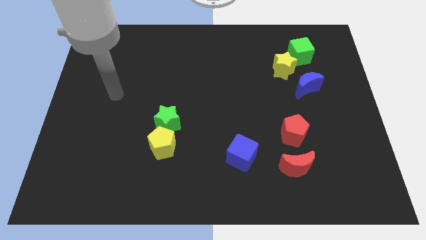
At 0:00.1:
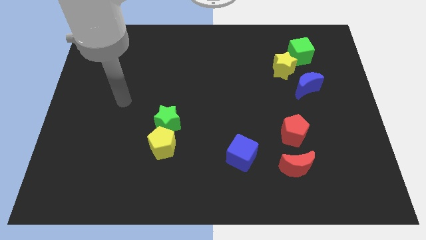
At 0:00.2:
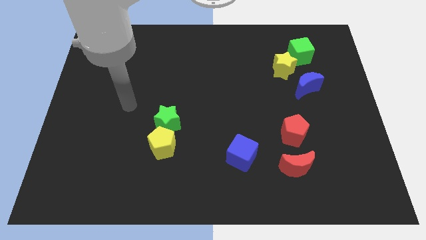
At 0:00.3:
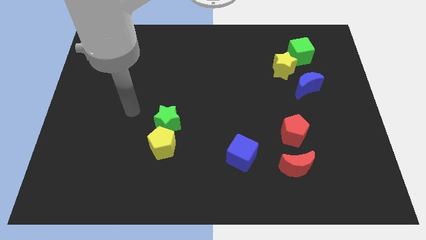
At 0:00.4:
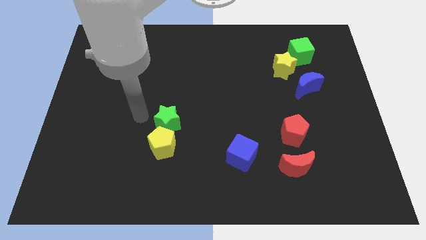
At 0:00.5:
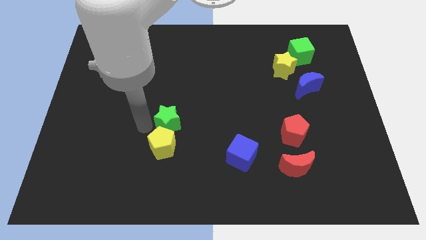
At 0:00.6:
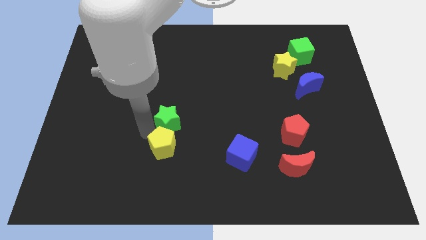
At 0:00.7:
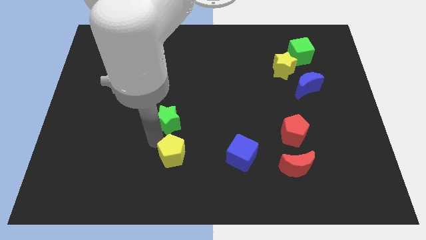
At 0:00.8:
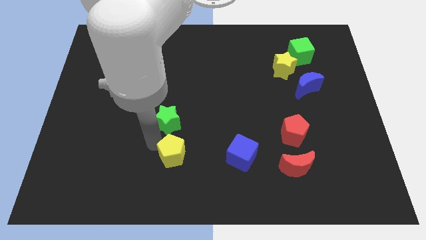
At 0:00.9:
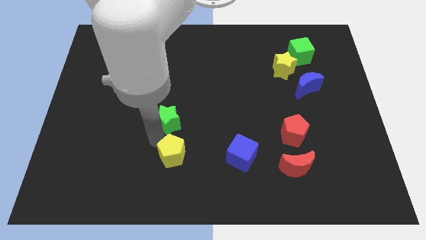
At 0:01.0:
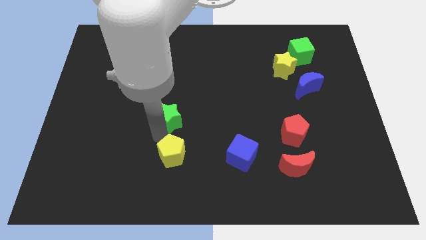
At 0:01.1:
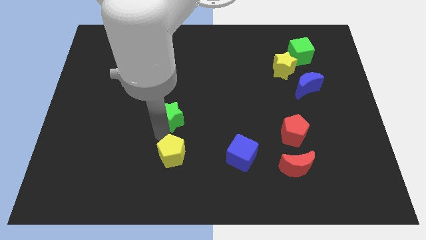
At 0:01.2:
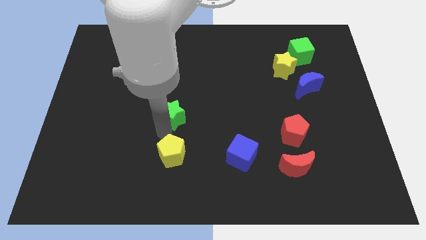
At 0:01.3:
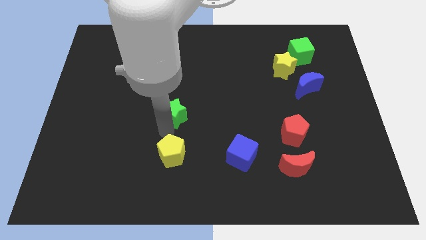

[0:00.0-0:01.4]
separate the green star from the yellow pentagon

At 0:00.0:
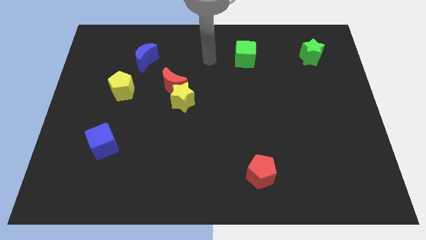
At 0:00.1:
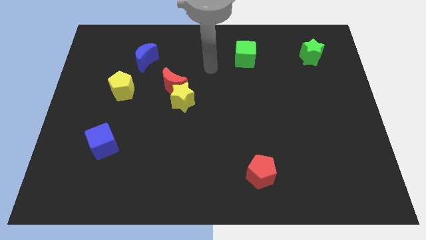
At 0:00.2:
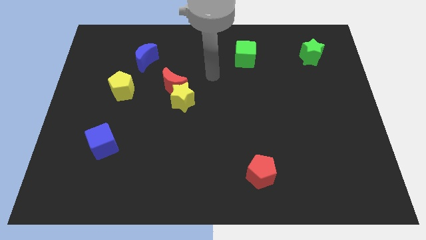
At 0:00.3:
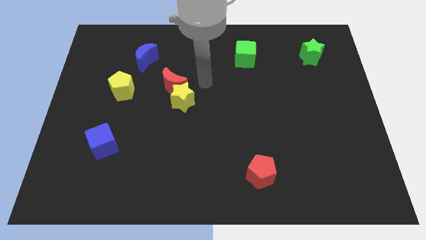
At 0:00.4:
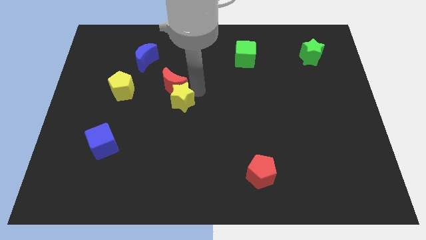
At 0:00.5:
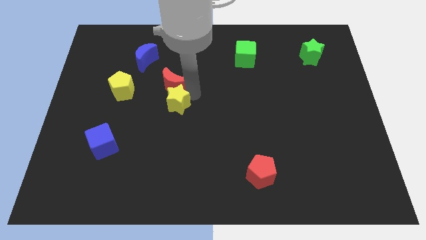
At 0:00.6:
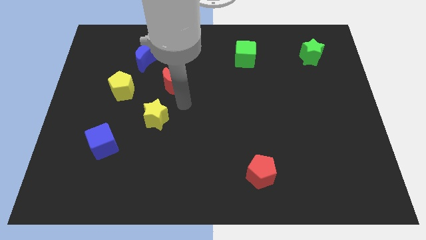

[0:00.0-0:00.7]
pull the red moon apart from the yellow star

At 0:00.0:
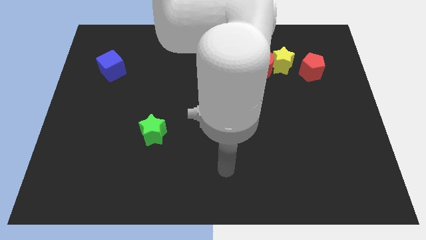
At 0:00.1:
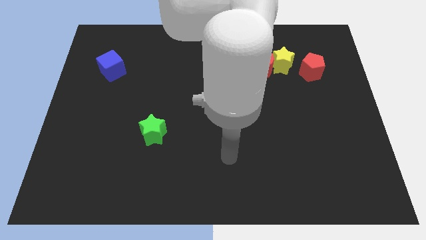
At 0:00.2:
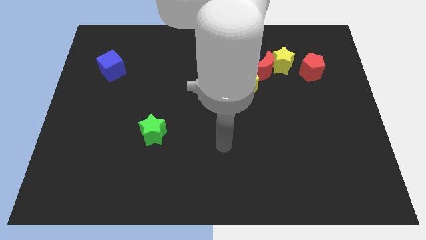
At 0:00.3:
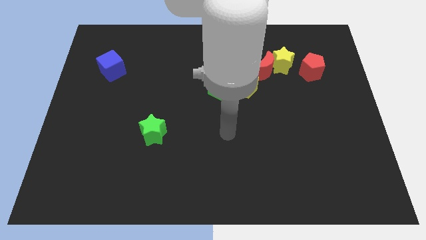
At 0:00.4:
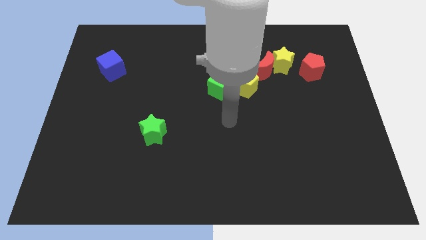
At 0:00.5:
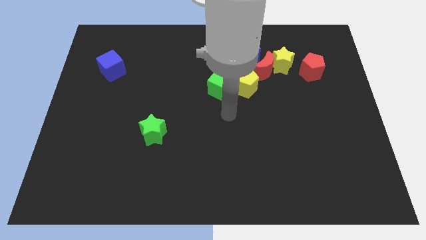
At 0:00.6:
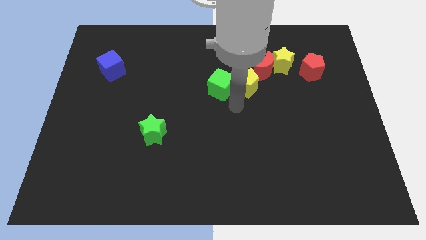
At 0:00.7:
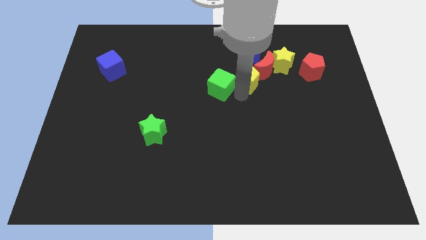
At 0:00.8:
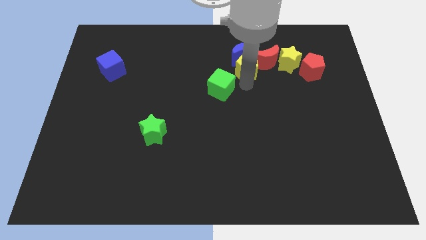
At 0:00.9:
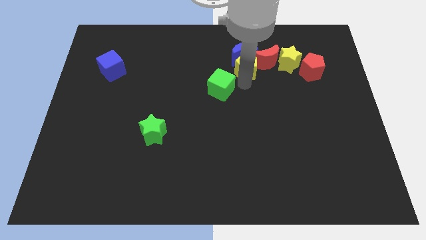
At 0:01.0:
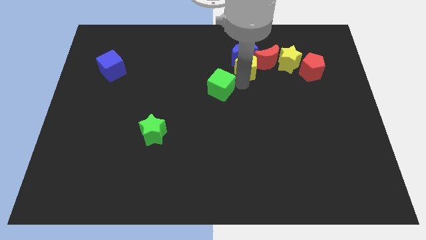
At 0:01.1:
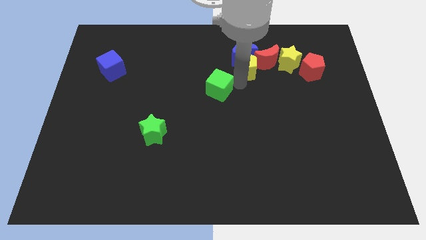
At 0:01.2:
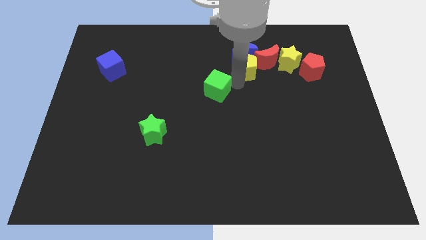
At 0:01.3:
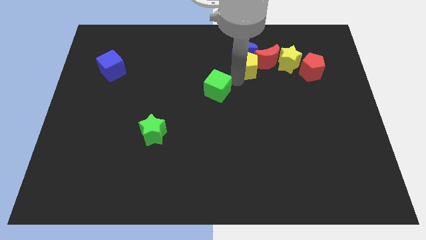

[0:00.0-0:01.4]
move the green cube away from the yellow pentagon

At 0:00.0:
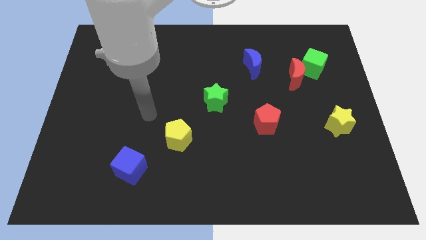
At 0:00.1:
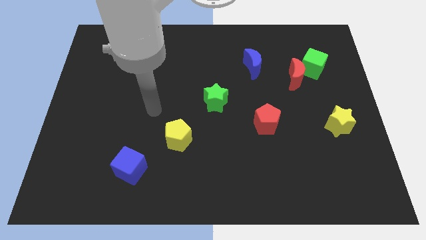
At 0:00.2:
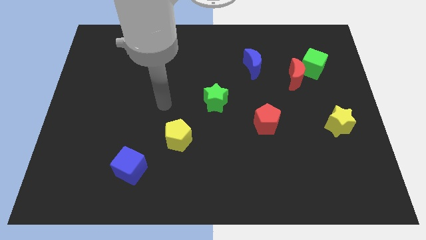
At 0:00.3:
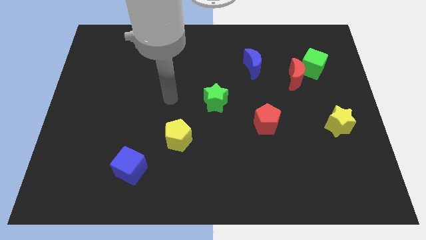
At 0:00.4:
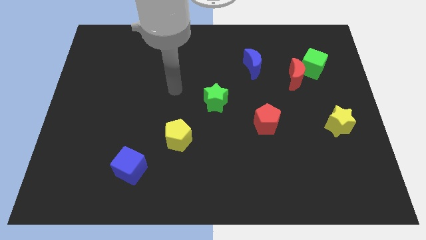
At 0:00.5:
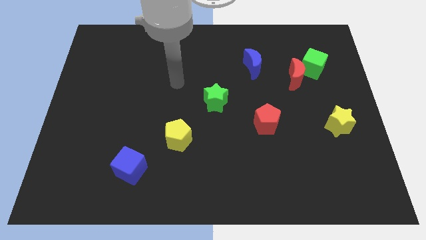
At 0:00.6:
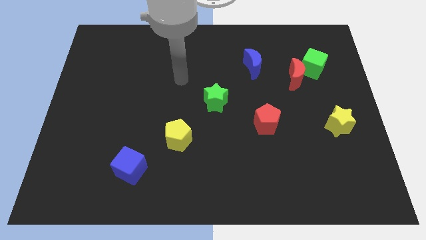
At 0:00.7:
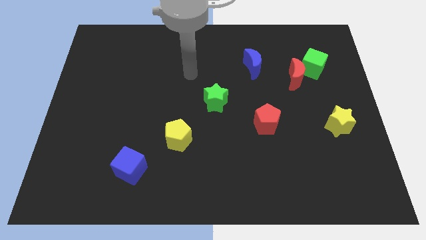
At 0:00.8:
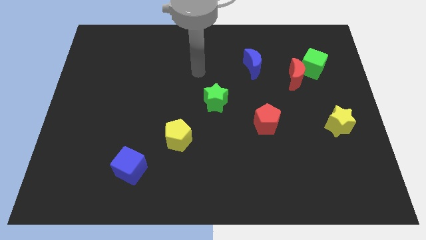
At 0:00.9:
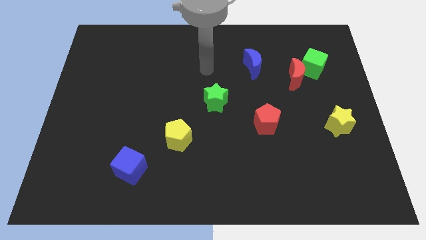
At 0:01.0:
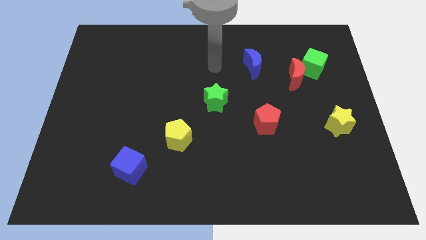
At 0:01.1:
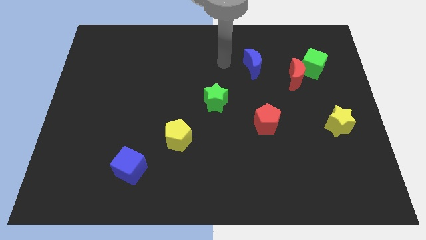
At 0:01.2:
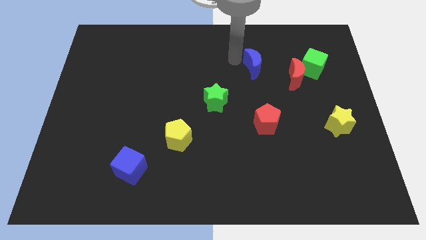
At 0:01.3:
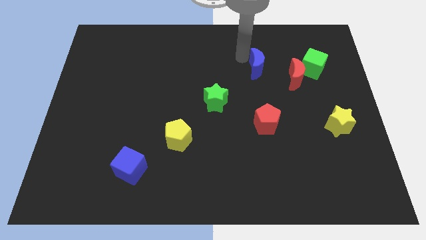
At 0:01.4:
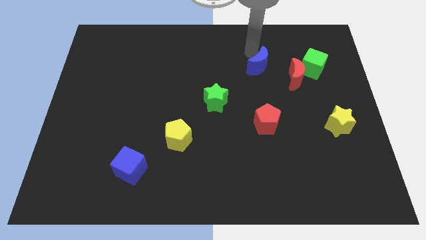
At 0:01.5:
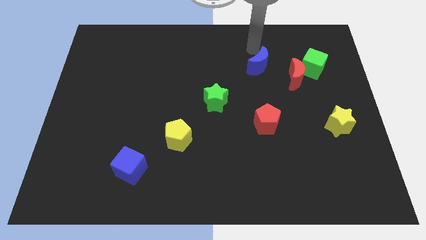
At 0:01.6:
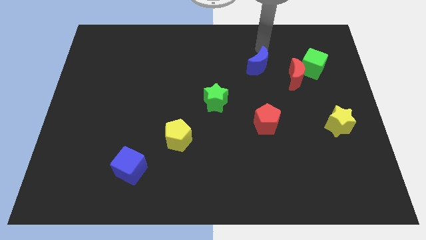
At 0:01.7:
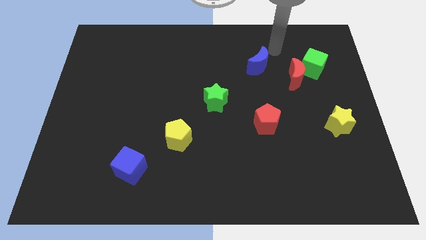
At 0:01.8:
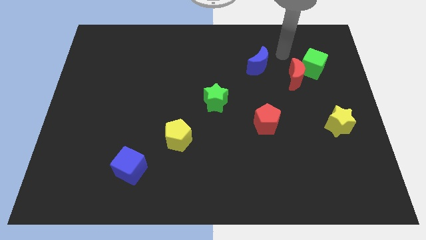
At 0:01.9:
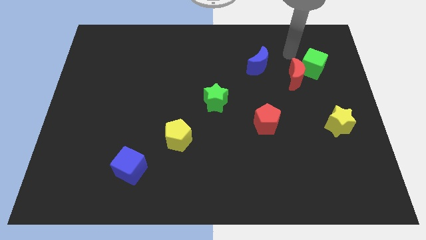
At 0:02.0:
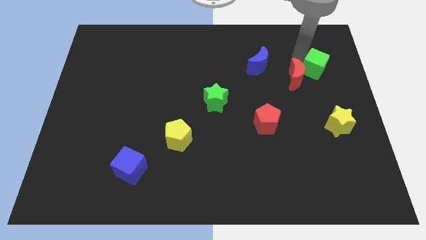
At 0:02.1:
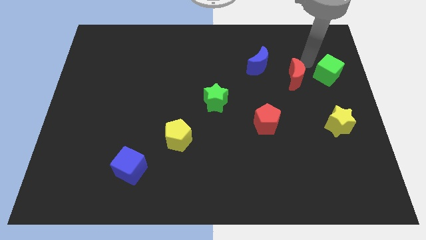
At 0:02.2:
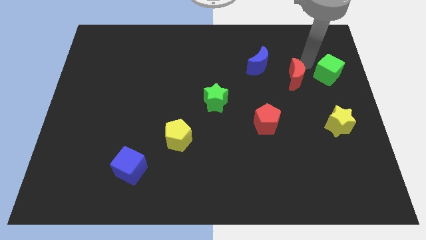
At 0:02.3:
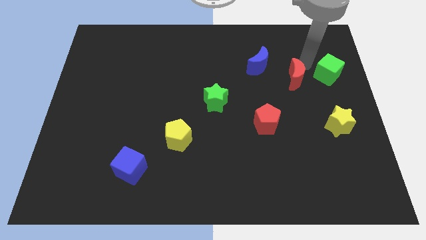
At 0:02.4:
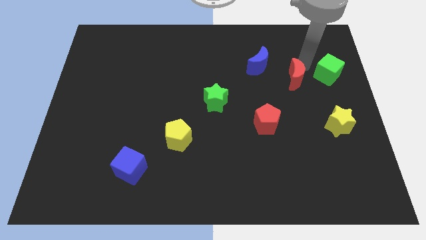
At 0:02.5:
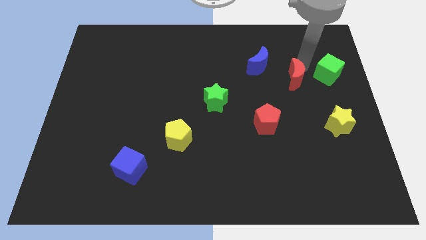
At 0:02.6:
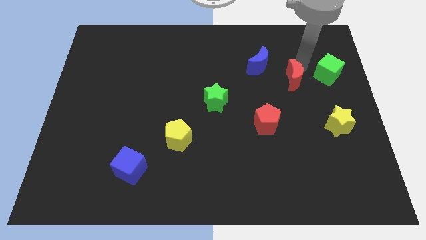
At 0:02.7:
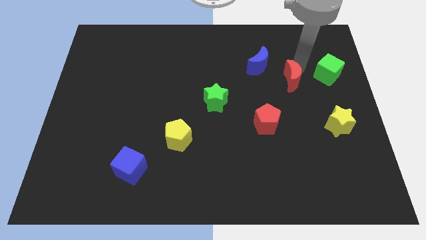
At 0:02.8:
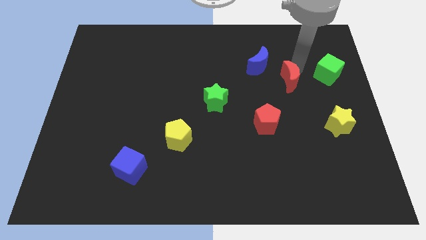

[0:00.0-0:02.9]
separate the red moon from the green cube

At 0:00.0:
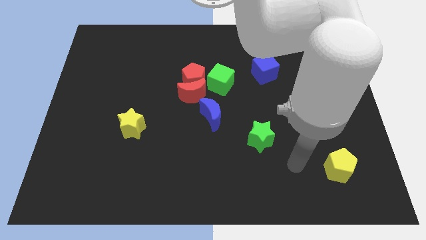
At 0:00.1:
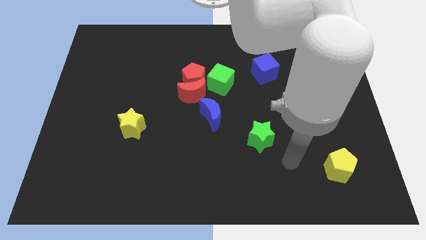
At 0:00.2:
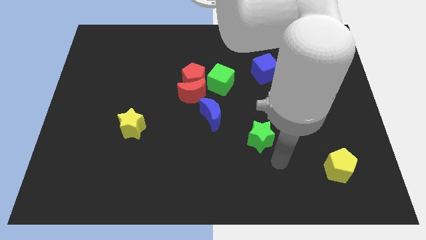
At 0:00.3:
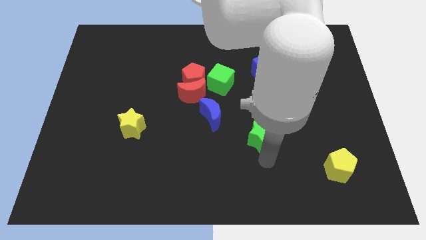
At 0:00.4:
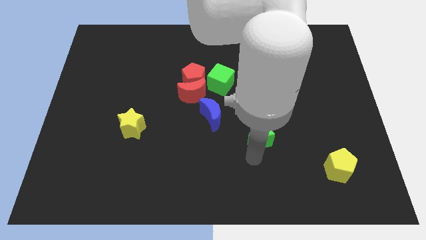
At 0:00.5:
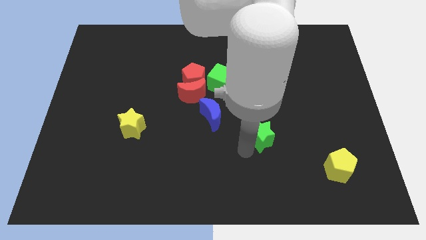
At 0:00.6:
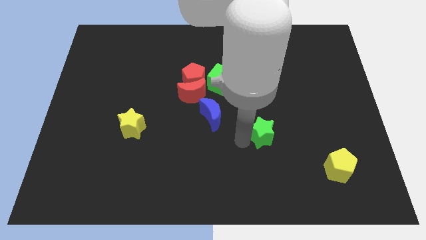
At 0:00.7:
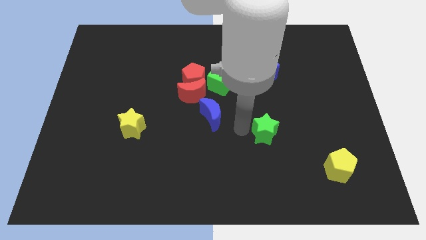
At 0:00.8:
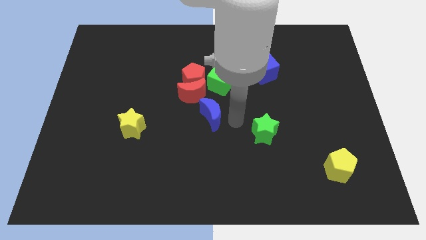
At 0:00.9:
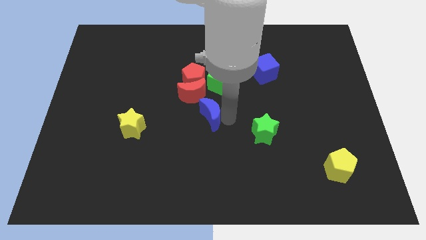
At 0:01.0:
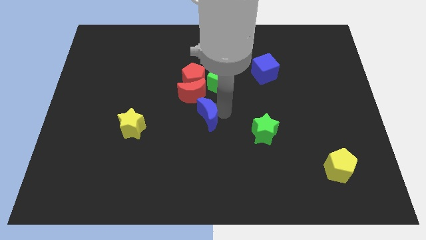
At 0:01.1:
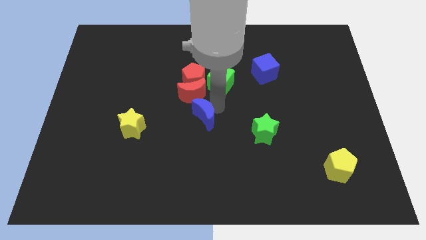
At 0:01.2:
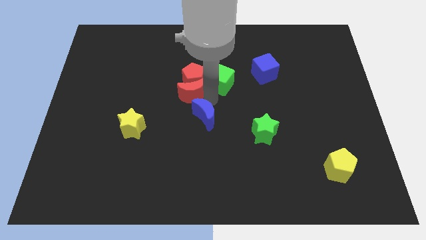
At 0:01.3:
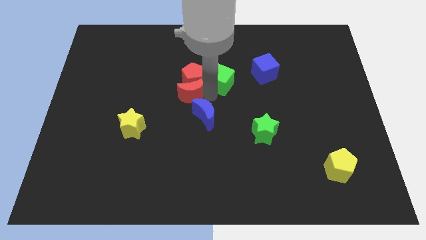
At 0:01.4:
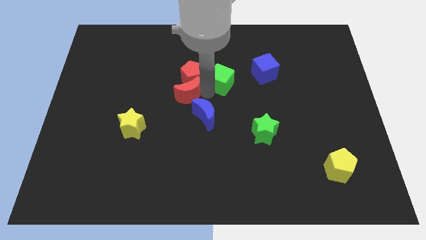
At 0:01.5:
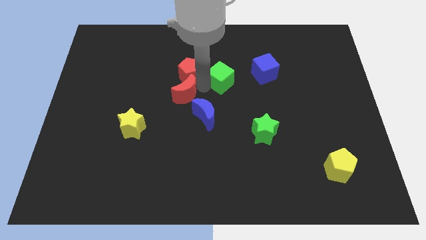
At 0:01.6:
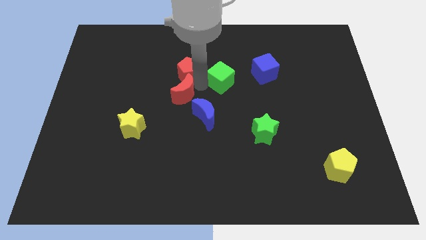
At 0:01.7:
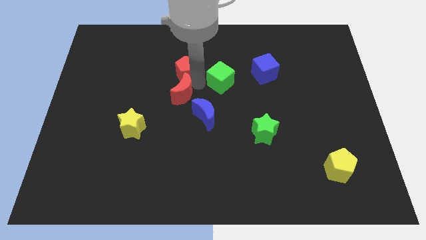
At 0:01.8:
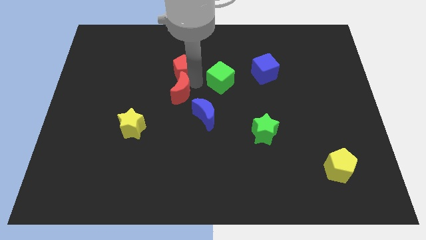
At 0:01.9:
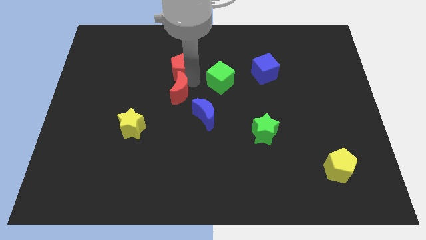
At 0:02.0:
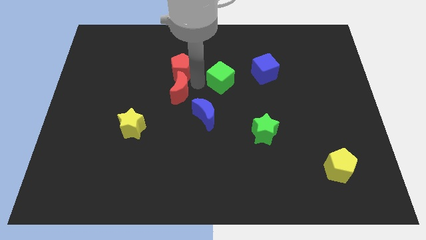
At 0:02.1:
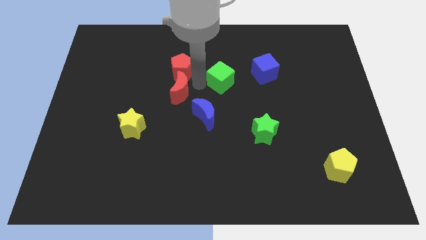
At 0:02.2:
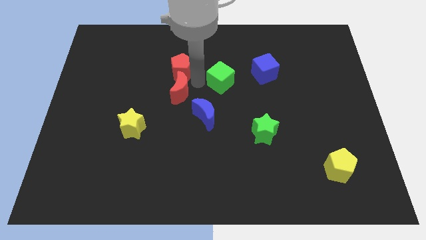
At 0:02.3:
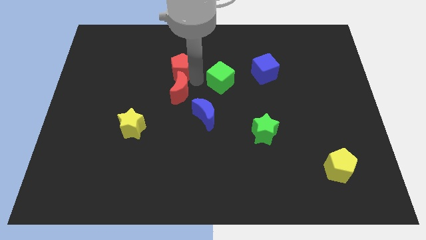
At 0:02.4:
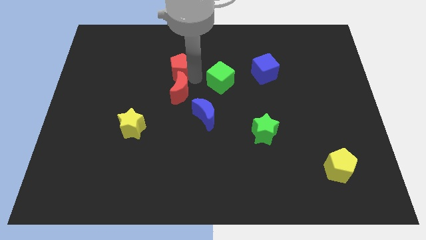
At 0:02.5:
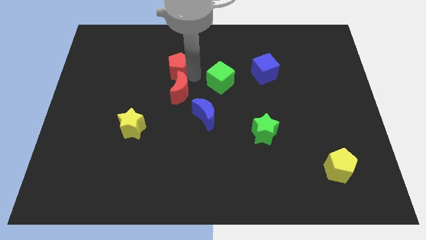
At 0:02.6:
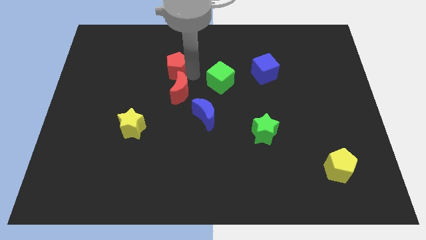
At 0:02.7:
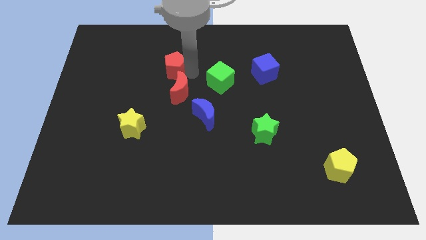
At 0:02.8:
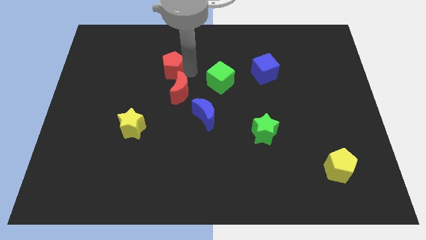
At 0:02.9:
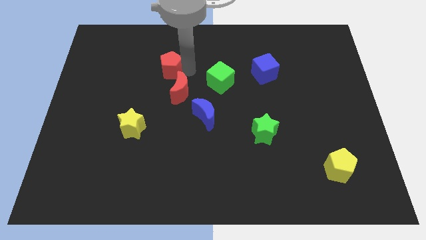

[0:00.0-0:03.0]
move the red pentagon away from the red moon and green cube
